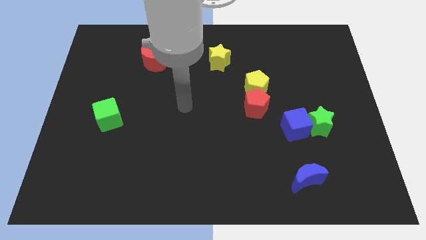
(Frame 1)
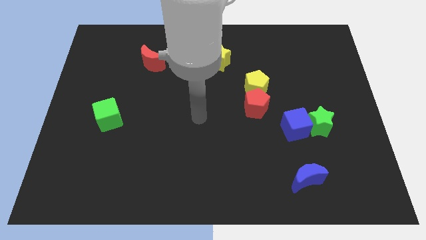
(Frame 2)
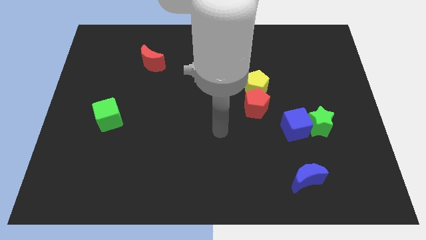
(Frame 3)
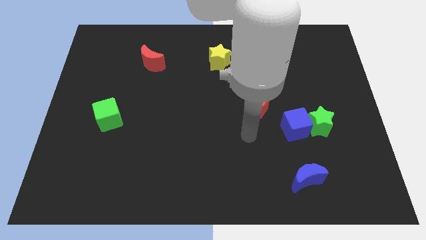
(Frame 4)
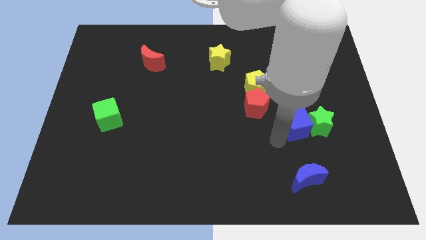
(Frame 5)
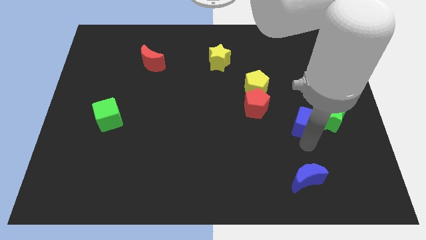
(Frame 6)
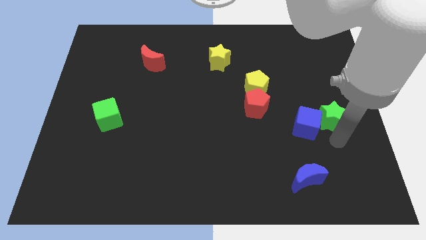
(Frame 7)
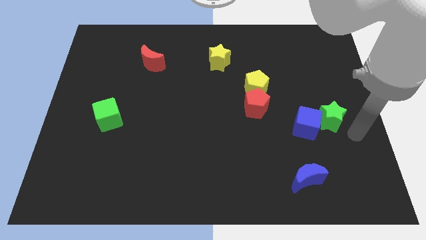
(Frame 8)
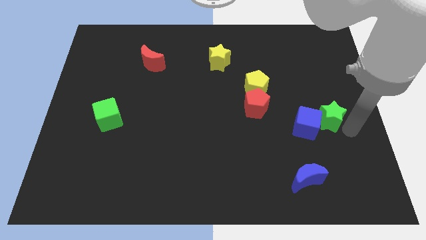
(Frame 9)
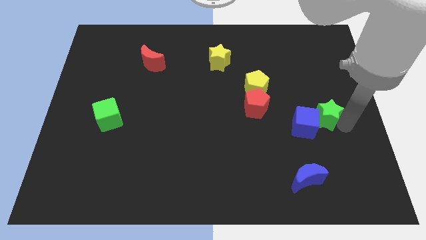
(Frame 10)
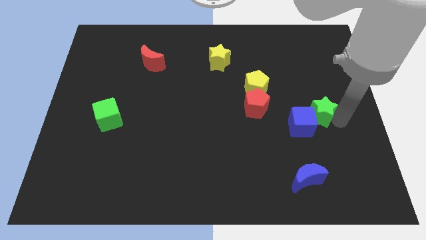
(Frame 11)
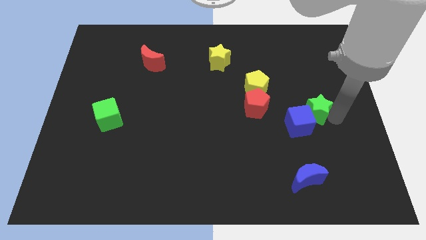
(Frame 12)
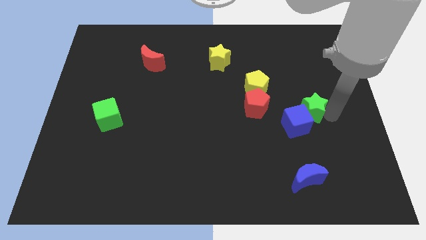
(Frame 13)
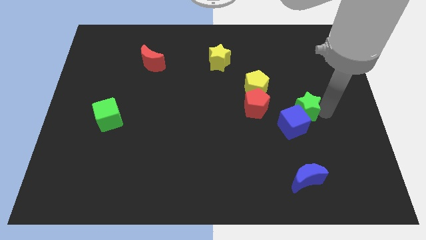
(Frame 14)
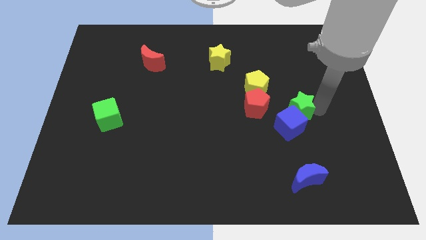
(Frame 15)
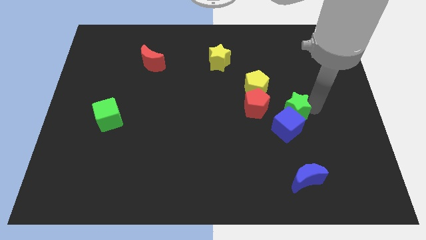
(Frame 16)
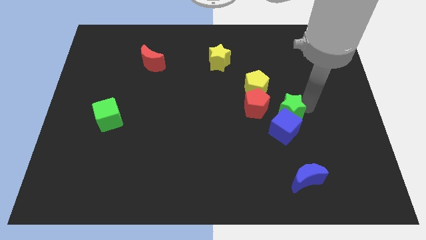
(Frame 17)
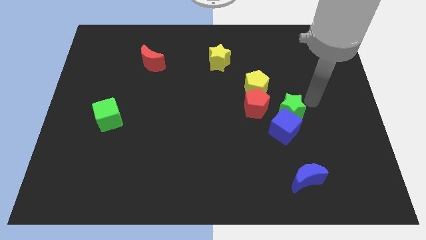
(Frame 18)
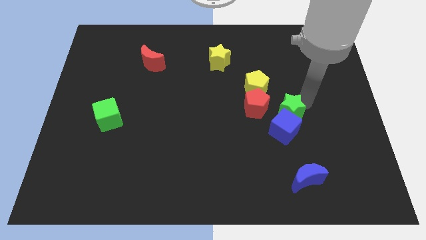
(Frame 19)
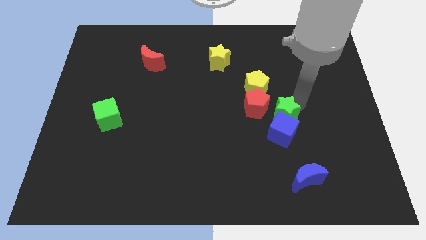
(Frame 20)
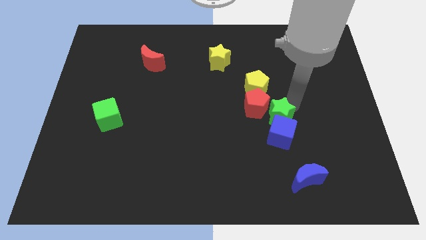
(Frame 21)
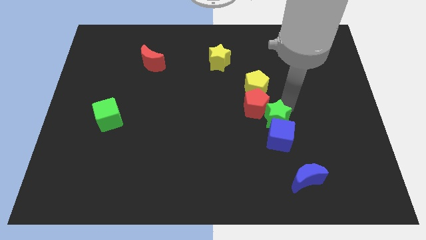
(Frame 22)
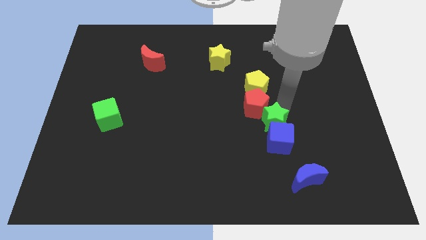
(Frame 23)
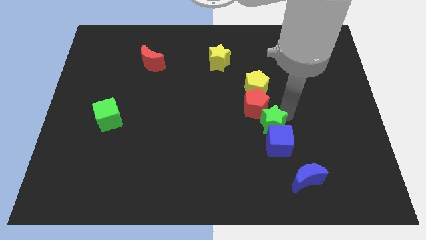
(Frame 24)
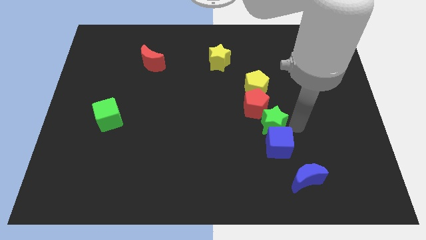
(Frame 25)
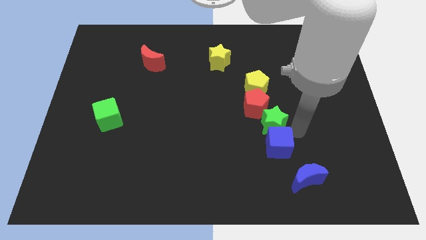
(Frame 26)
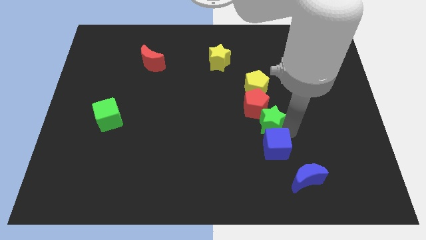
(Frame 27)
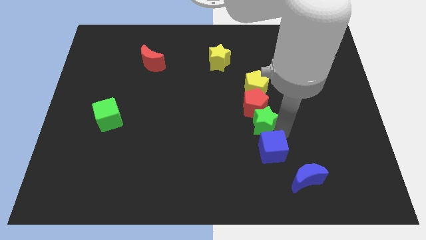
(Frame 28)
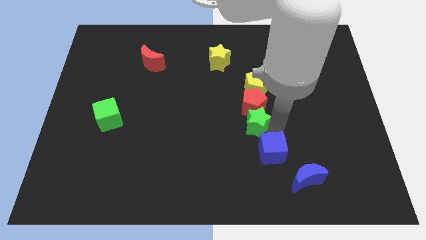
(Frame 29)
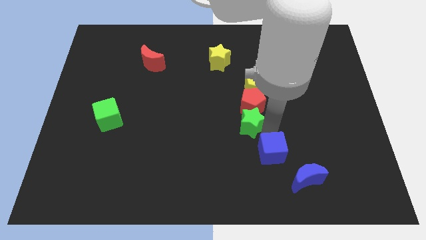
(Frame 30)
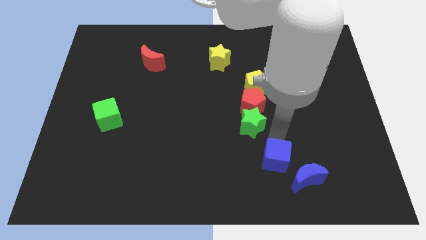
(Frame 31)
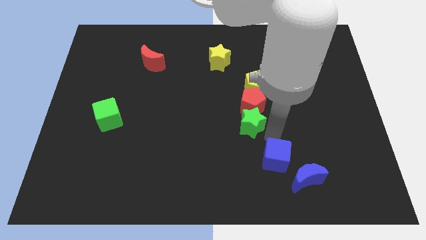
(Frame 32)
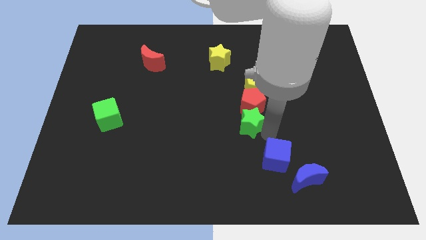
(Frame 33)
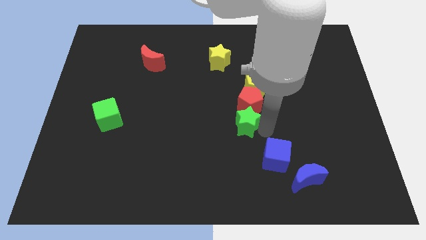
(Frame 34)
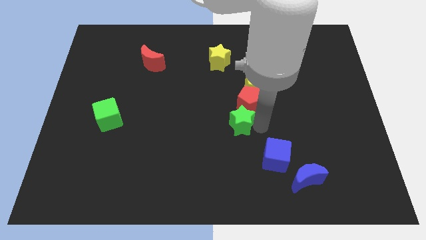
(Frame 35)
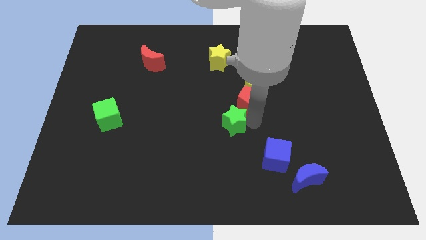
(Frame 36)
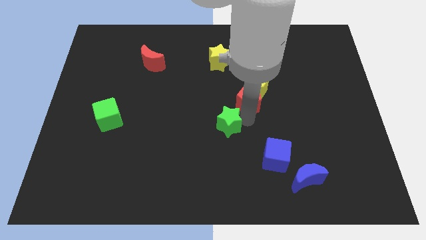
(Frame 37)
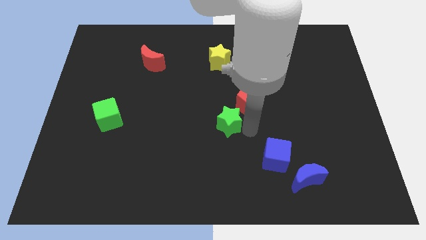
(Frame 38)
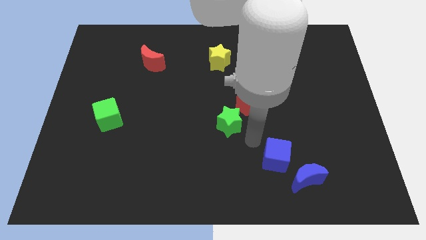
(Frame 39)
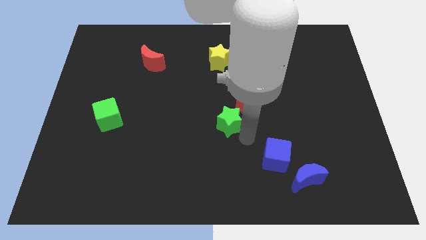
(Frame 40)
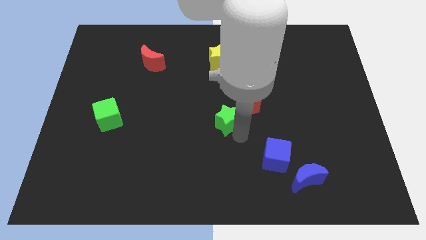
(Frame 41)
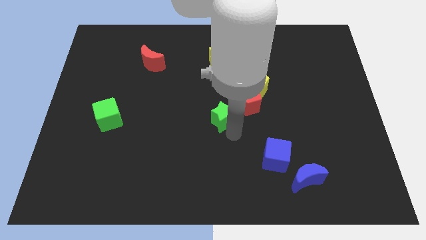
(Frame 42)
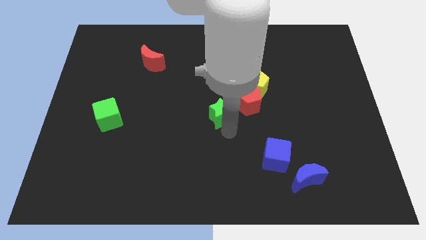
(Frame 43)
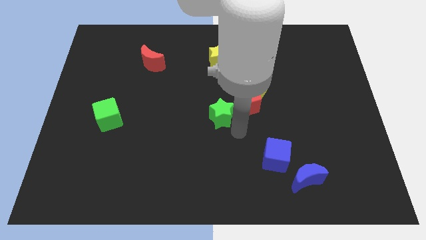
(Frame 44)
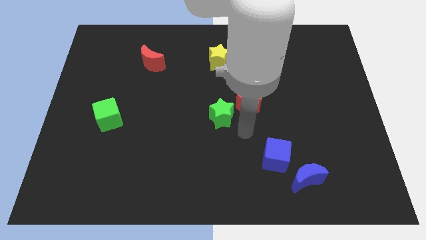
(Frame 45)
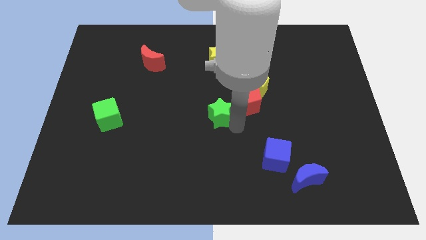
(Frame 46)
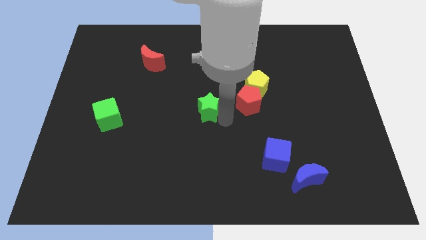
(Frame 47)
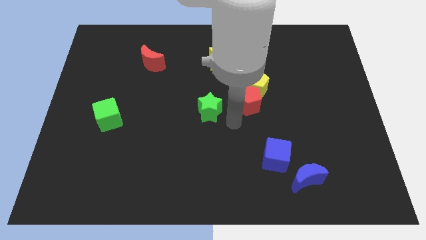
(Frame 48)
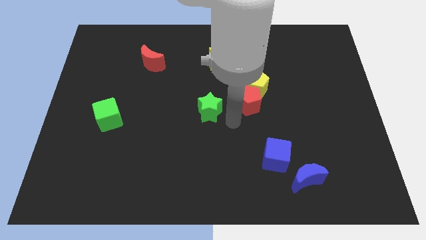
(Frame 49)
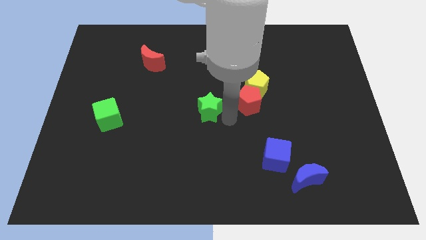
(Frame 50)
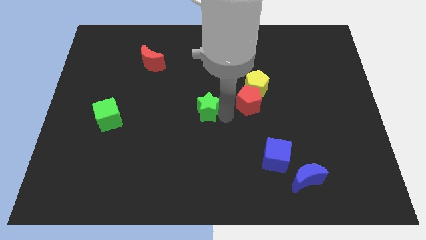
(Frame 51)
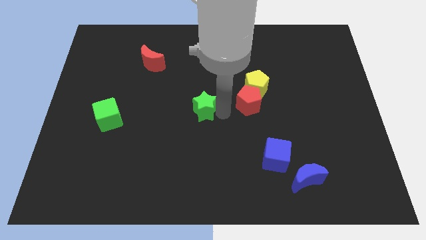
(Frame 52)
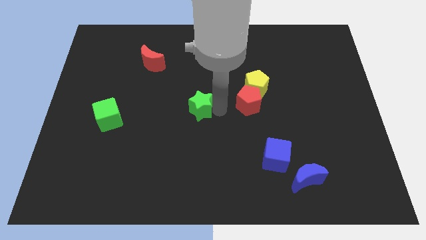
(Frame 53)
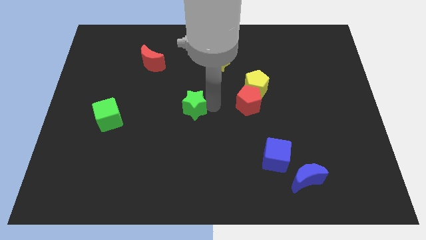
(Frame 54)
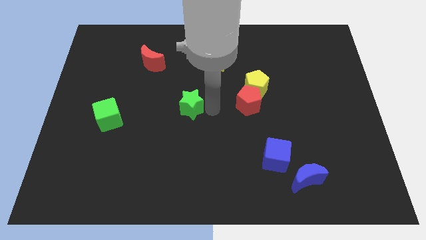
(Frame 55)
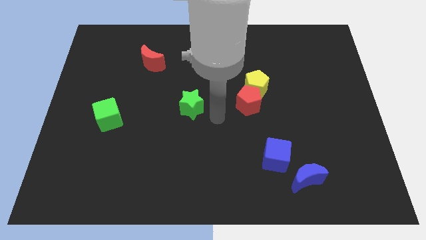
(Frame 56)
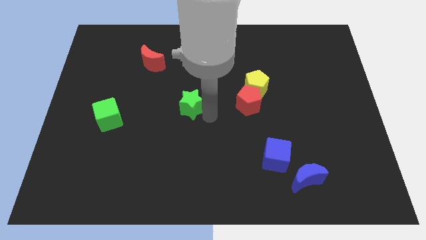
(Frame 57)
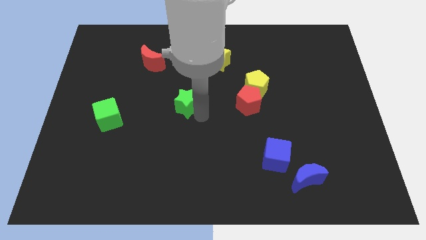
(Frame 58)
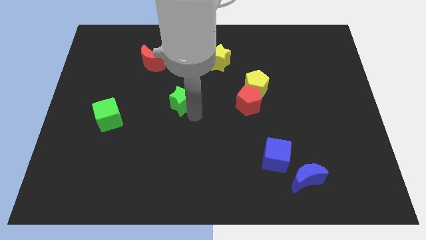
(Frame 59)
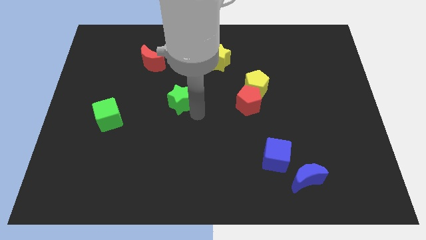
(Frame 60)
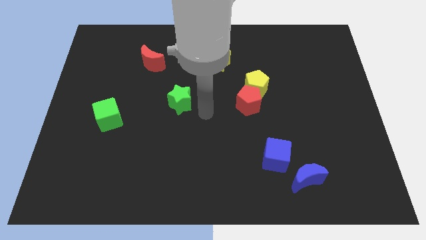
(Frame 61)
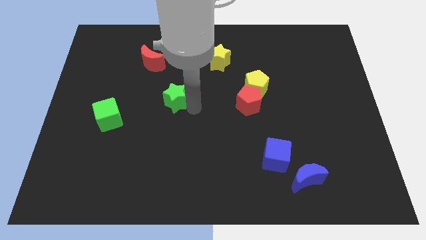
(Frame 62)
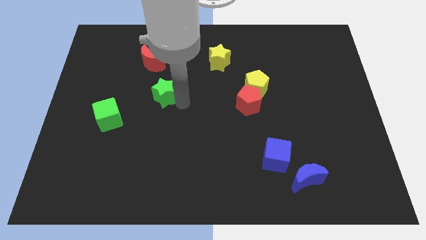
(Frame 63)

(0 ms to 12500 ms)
slide the green star to the bottom side of the red moon
